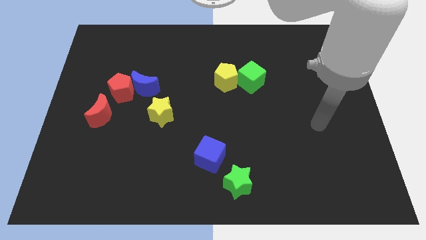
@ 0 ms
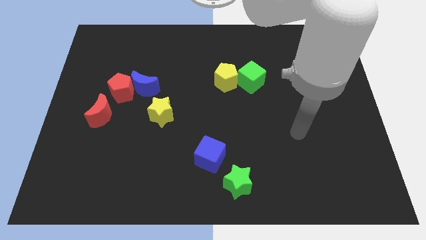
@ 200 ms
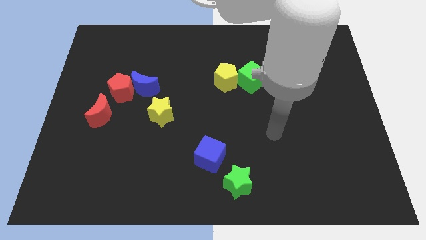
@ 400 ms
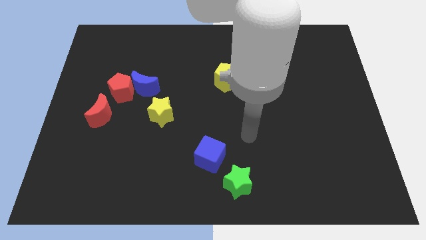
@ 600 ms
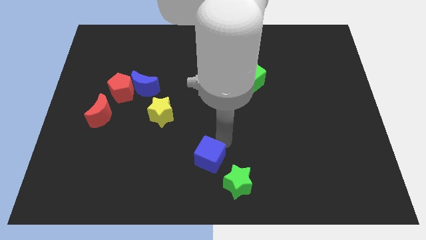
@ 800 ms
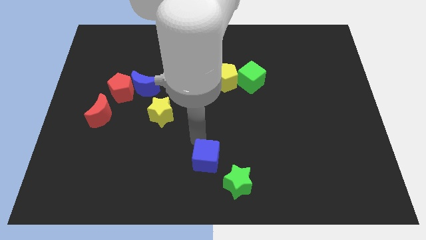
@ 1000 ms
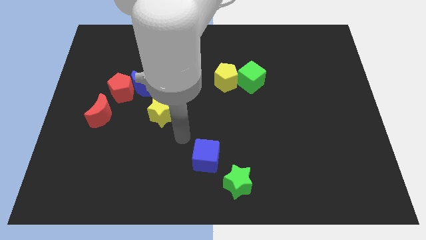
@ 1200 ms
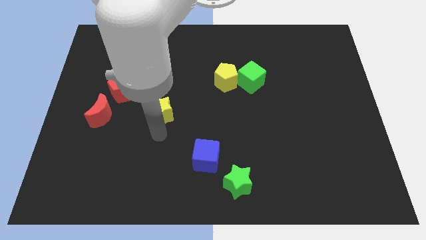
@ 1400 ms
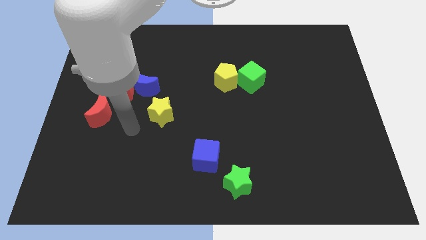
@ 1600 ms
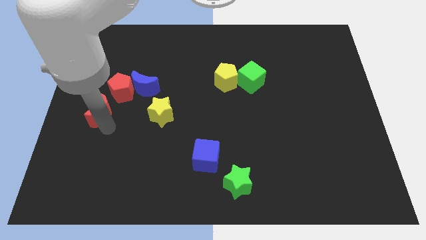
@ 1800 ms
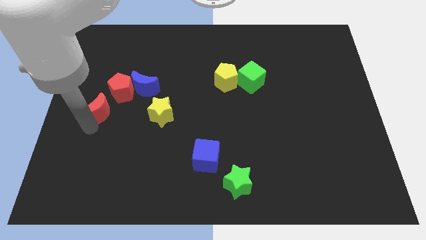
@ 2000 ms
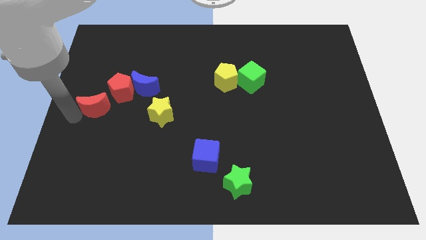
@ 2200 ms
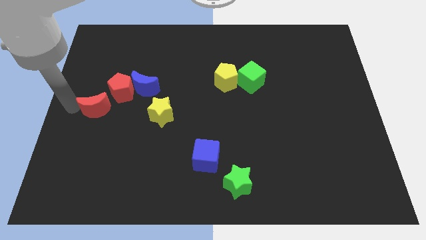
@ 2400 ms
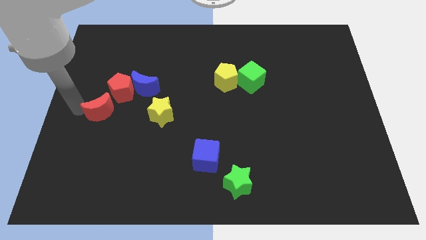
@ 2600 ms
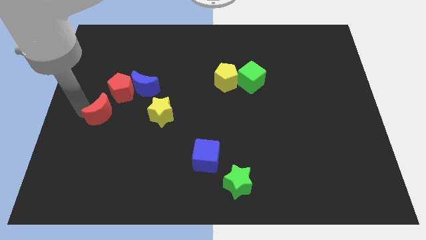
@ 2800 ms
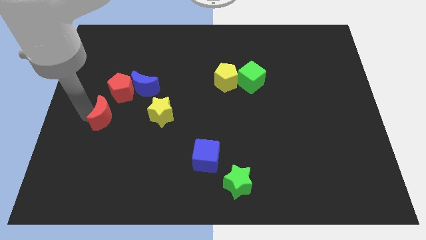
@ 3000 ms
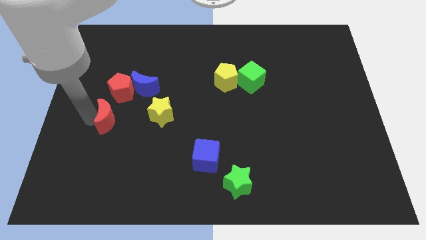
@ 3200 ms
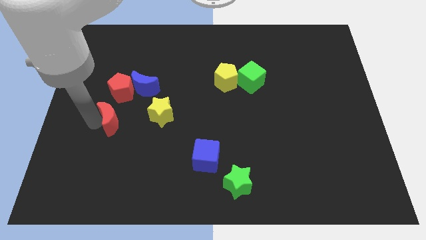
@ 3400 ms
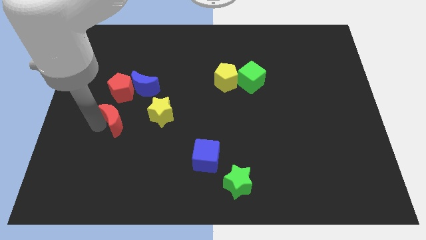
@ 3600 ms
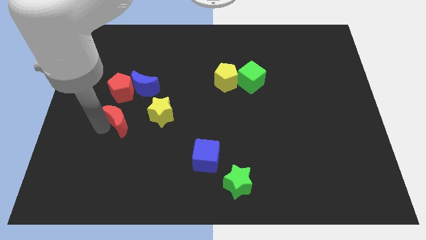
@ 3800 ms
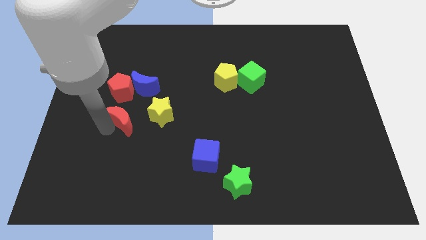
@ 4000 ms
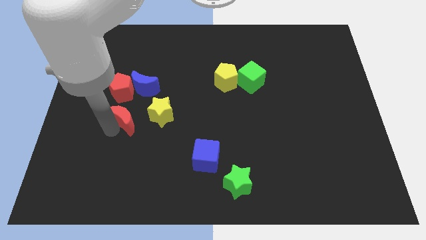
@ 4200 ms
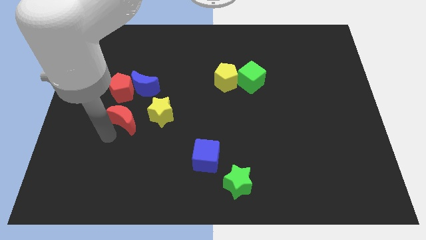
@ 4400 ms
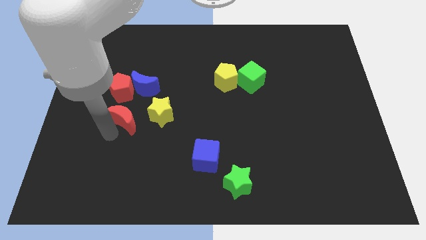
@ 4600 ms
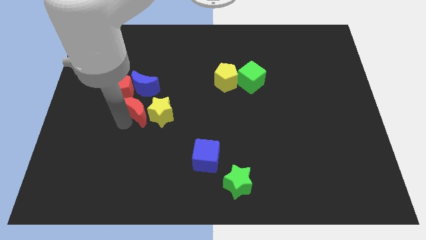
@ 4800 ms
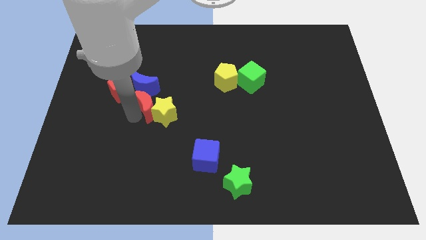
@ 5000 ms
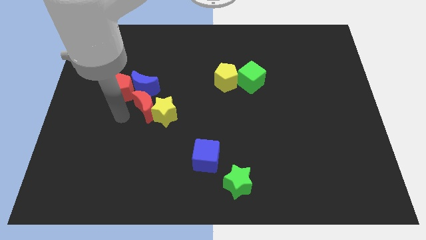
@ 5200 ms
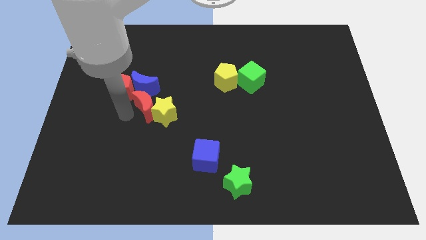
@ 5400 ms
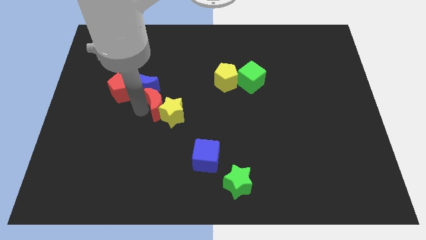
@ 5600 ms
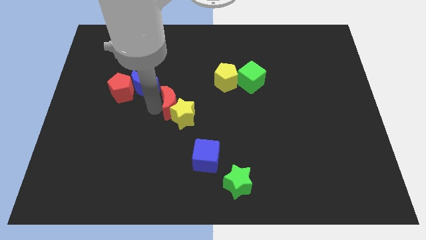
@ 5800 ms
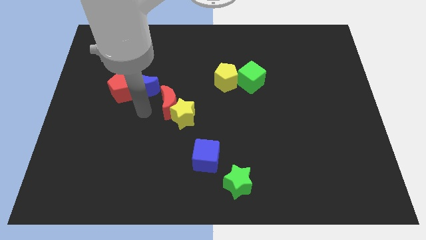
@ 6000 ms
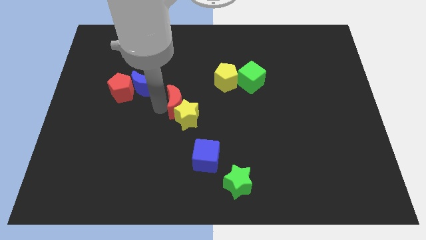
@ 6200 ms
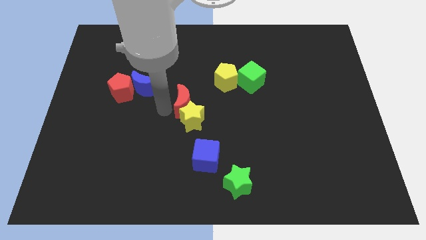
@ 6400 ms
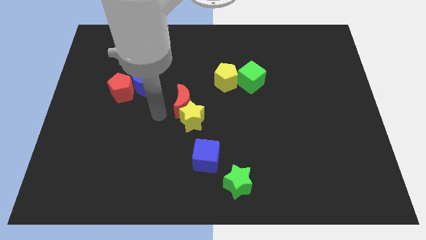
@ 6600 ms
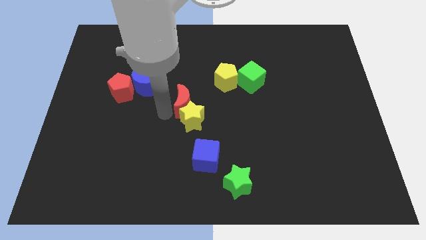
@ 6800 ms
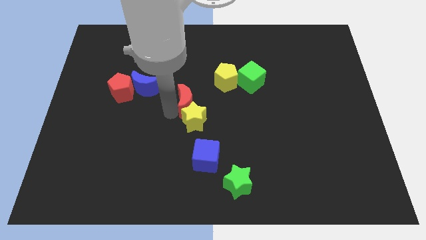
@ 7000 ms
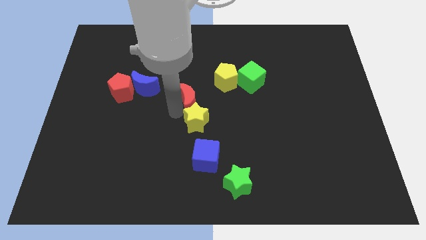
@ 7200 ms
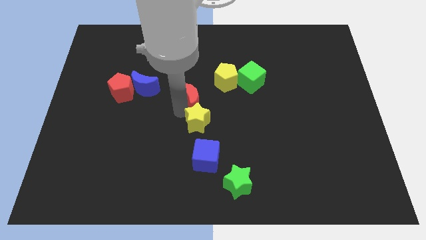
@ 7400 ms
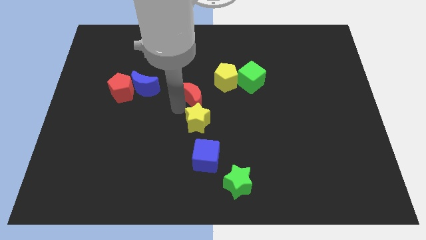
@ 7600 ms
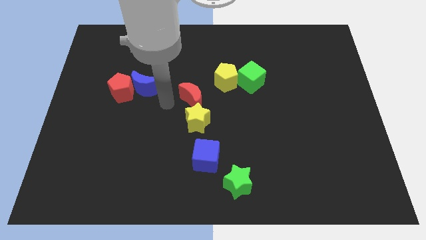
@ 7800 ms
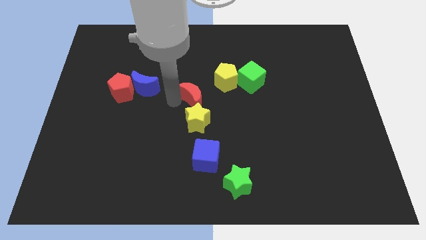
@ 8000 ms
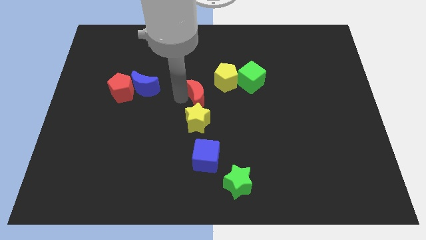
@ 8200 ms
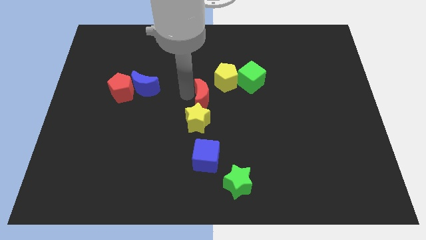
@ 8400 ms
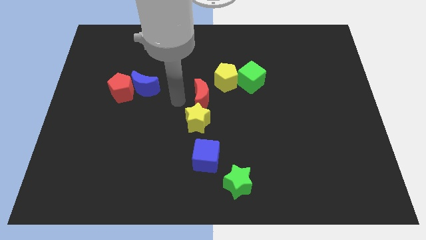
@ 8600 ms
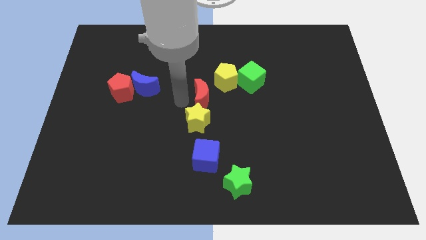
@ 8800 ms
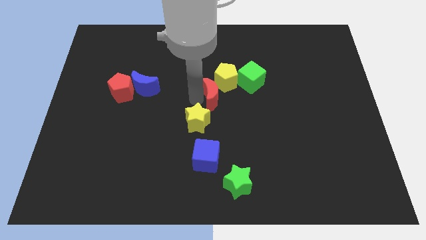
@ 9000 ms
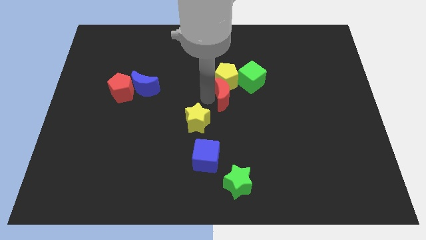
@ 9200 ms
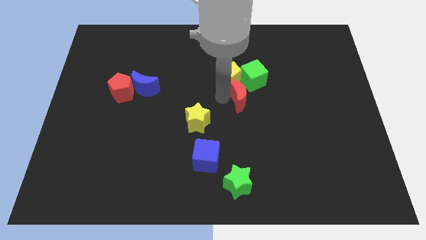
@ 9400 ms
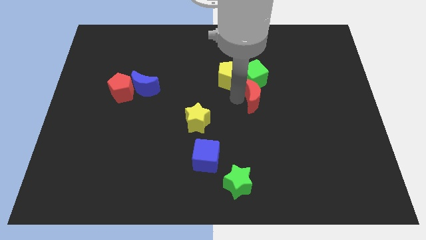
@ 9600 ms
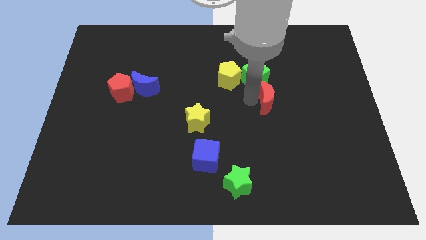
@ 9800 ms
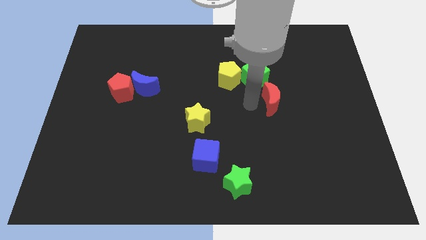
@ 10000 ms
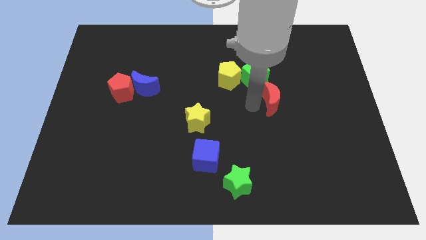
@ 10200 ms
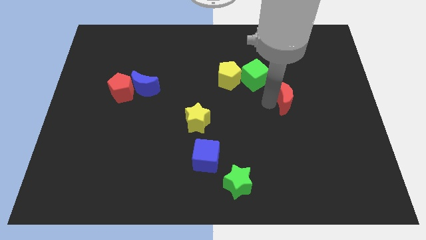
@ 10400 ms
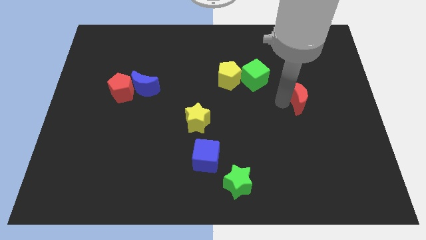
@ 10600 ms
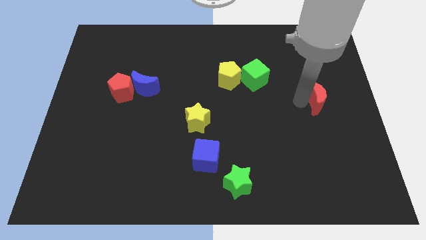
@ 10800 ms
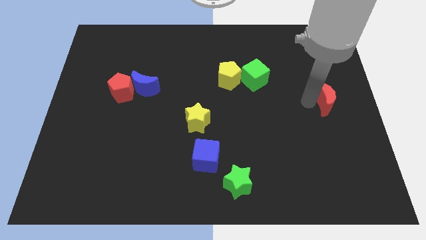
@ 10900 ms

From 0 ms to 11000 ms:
slide the red moon to the right side of the board
